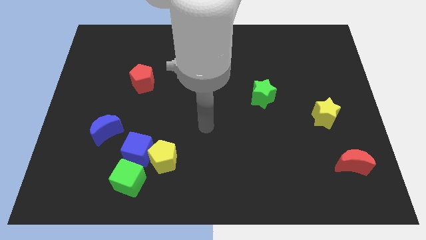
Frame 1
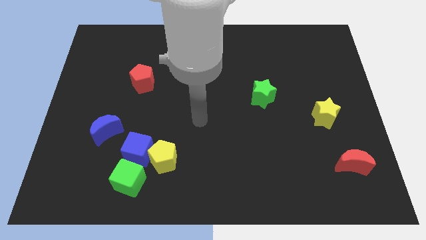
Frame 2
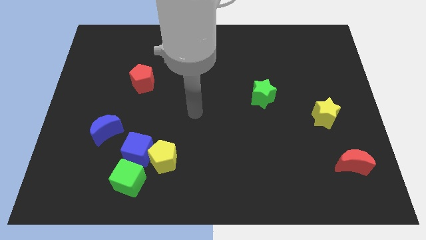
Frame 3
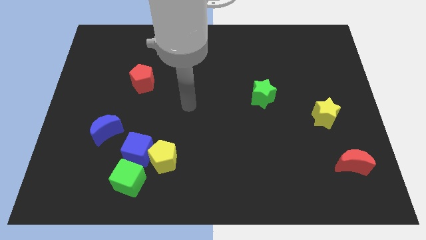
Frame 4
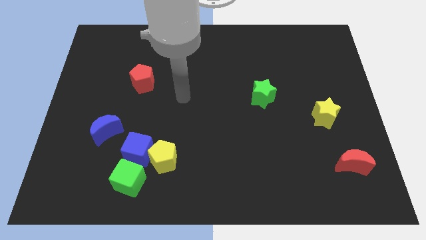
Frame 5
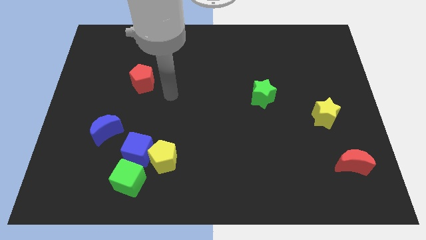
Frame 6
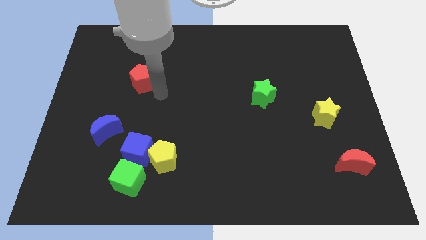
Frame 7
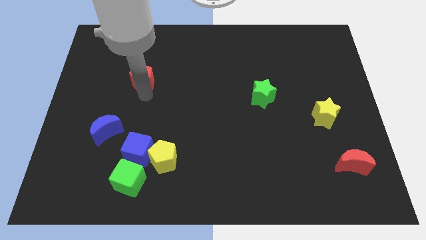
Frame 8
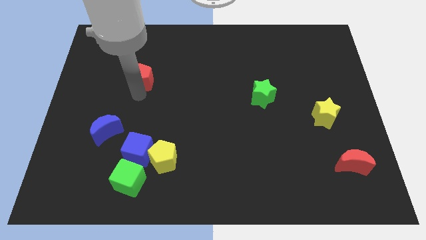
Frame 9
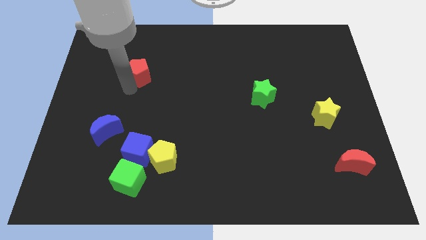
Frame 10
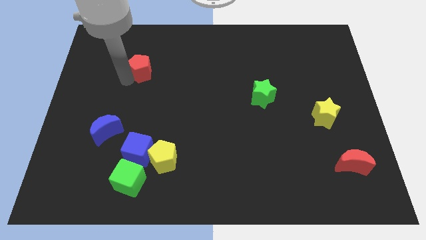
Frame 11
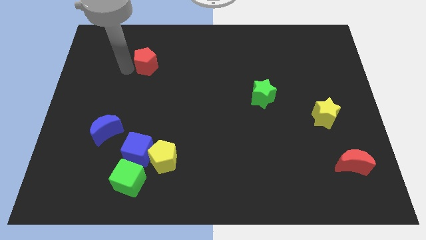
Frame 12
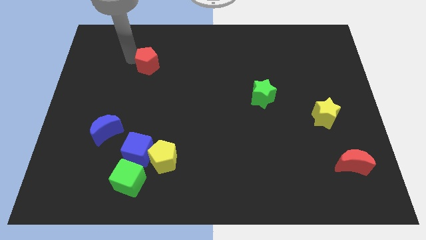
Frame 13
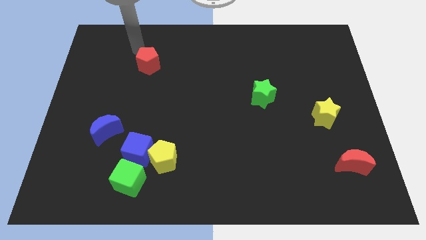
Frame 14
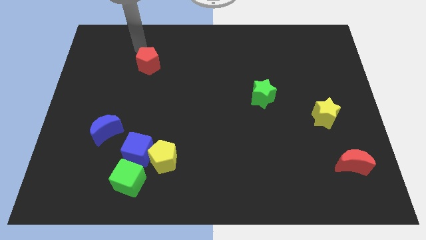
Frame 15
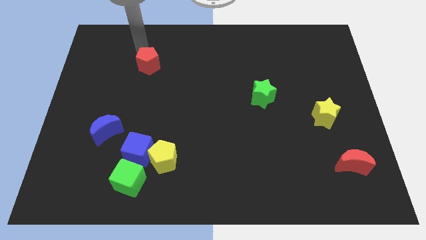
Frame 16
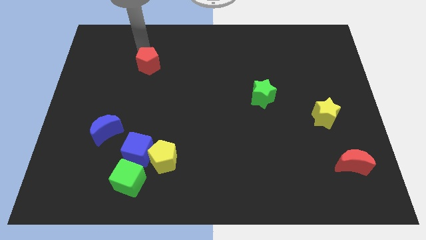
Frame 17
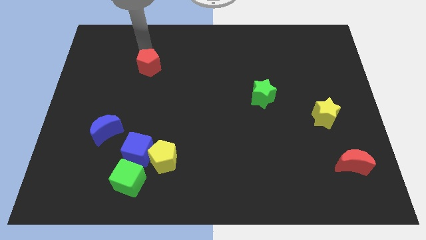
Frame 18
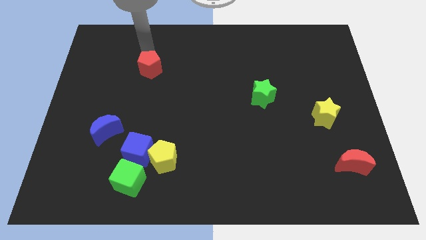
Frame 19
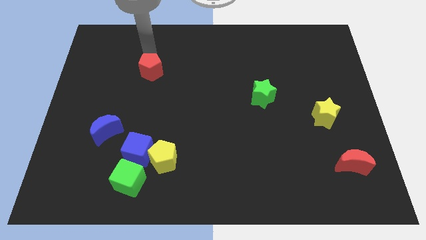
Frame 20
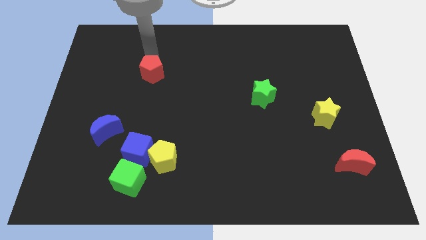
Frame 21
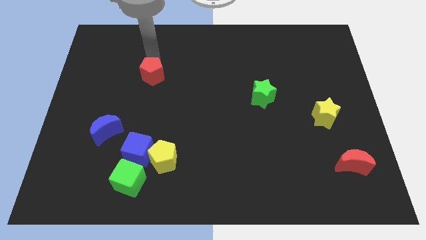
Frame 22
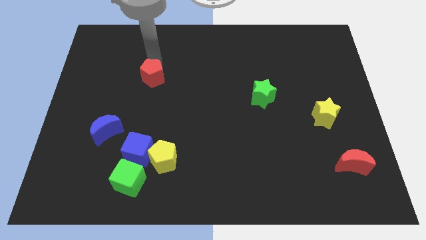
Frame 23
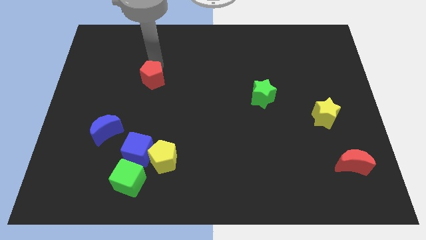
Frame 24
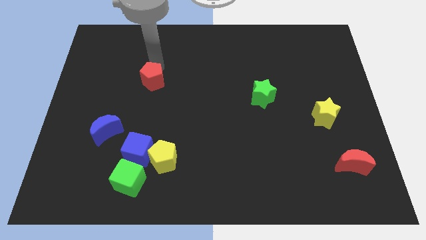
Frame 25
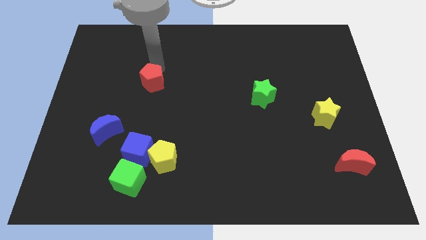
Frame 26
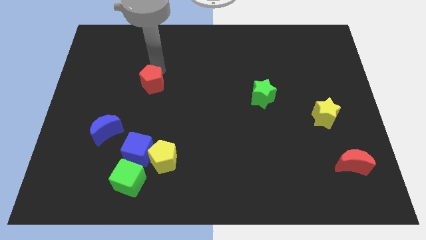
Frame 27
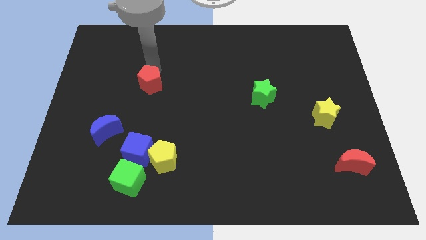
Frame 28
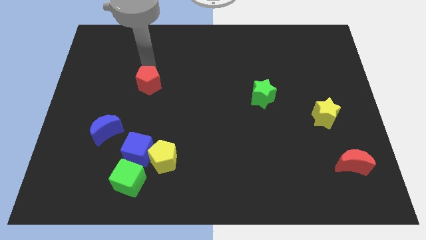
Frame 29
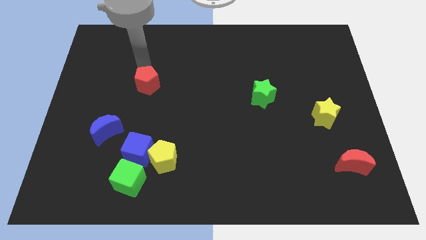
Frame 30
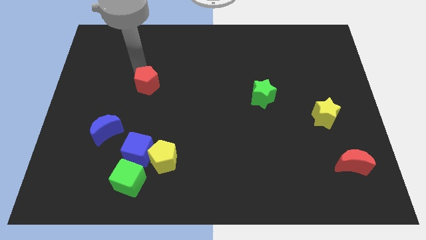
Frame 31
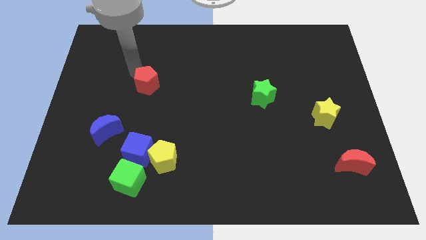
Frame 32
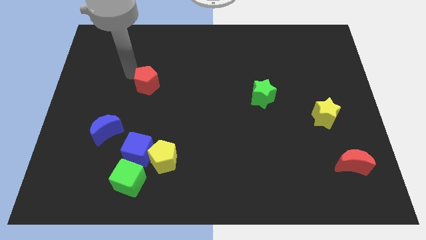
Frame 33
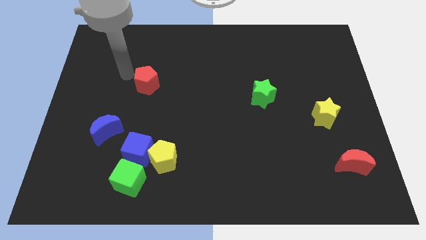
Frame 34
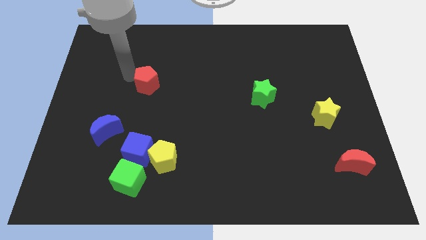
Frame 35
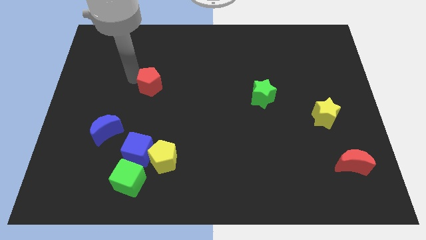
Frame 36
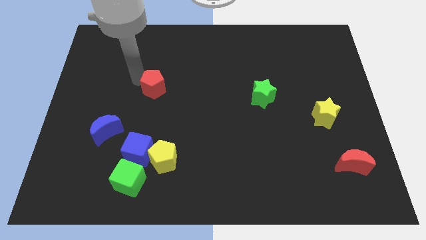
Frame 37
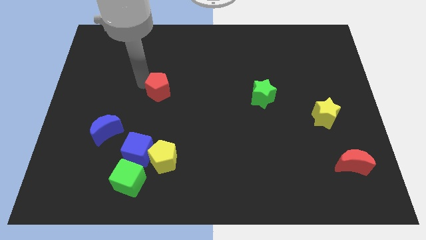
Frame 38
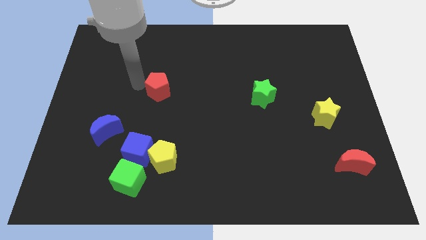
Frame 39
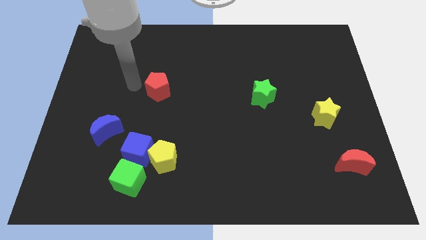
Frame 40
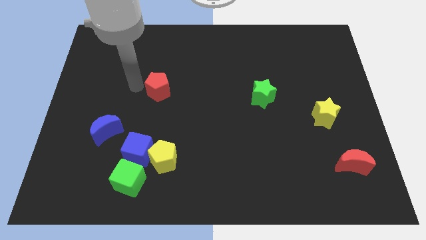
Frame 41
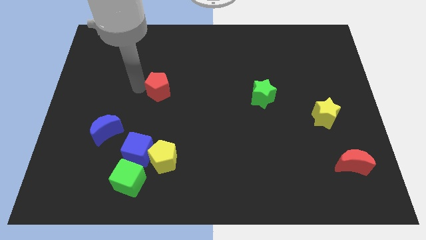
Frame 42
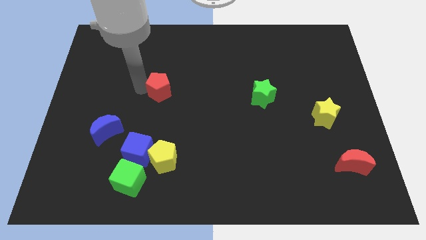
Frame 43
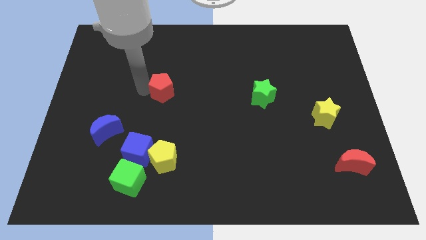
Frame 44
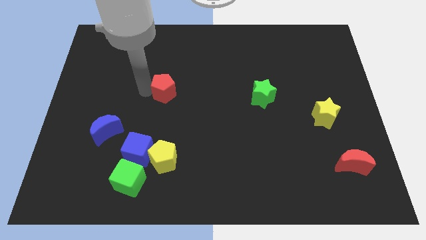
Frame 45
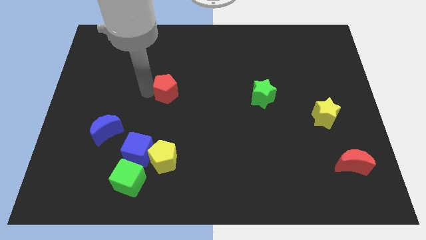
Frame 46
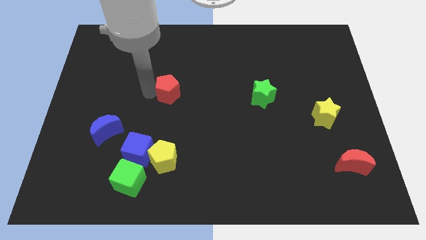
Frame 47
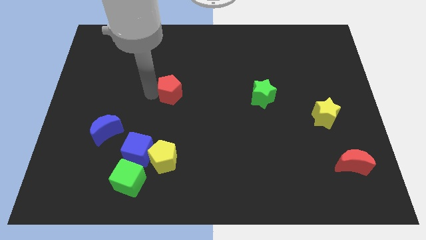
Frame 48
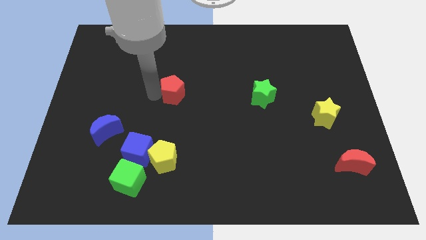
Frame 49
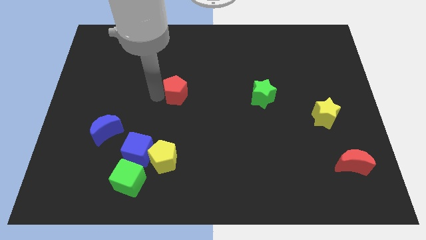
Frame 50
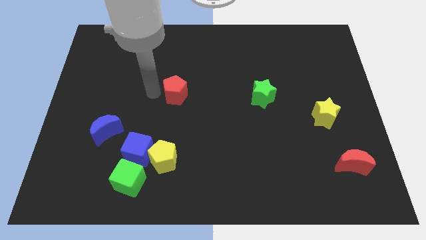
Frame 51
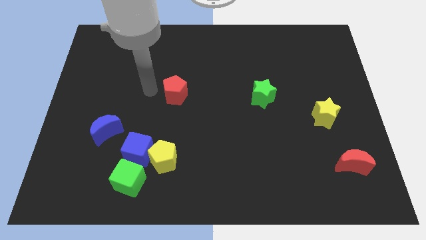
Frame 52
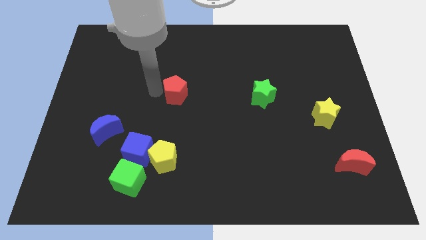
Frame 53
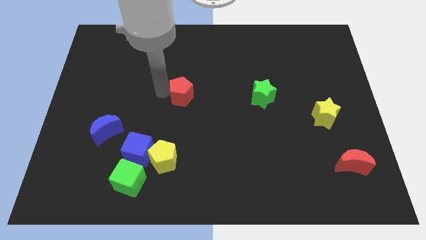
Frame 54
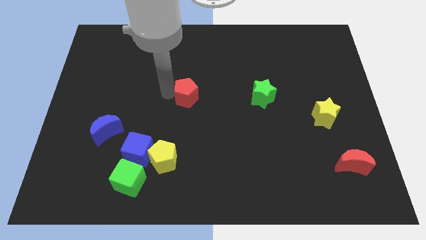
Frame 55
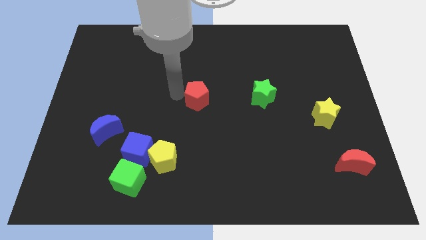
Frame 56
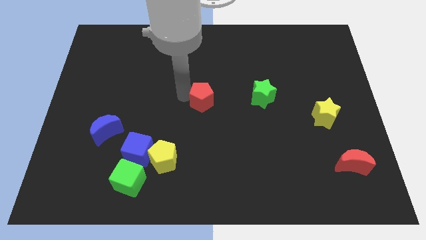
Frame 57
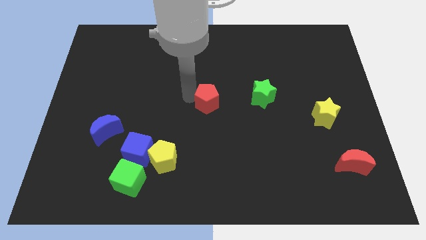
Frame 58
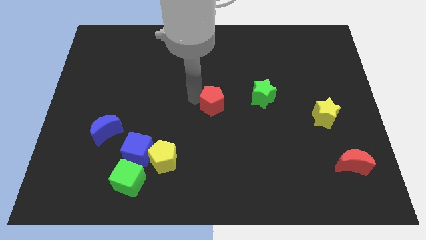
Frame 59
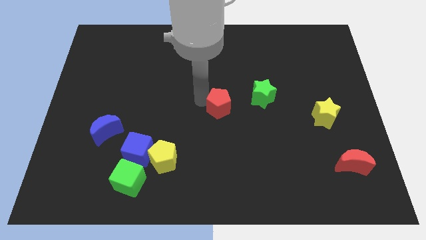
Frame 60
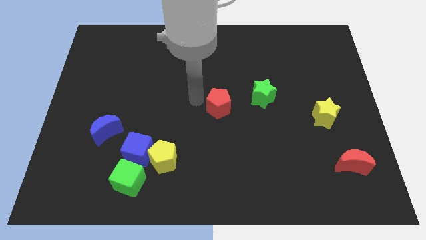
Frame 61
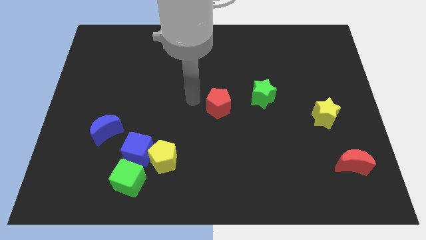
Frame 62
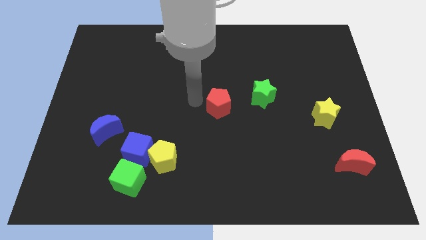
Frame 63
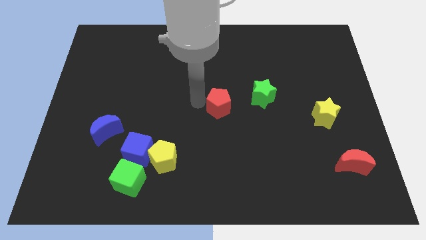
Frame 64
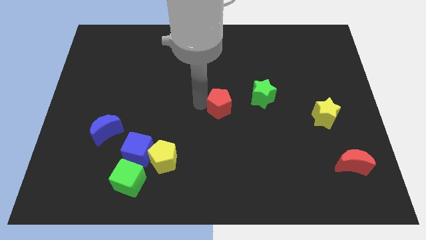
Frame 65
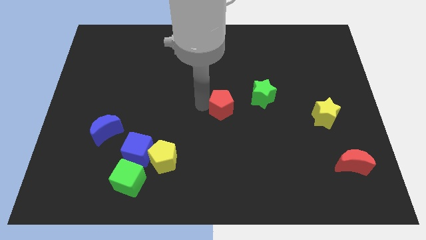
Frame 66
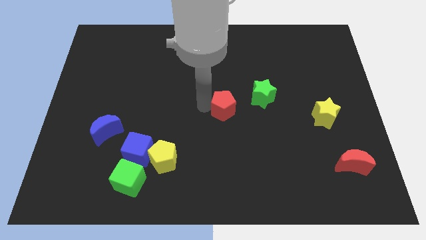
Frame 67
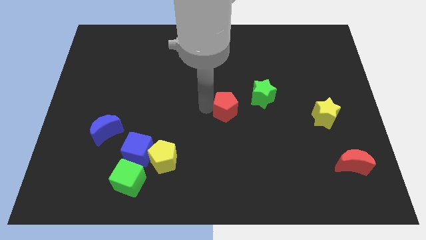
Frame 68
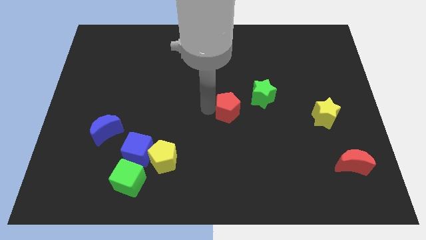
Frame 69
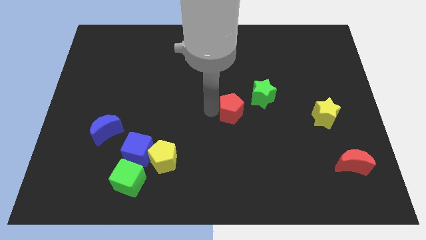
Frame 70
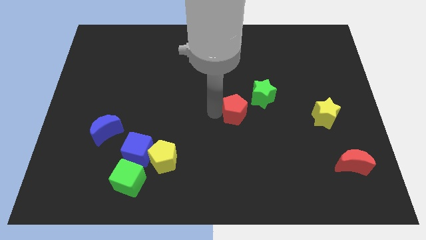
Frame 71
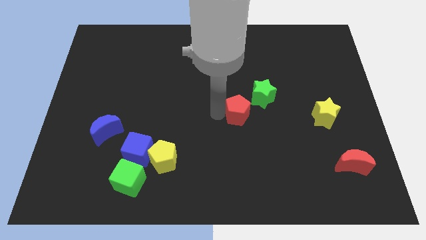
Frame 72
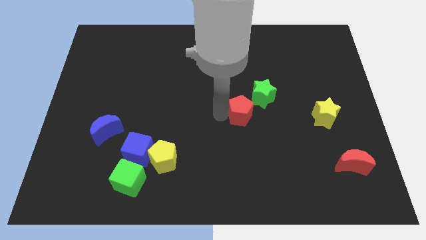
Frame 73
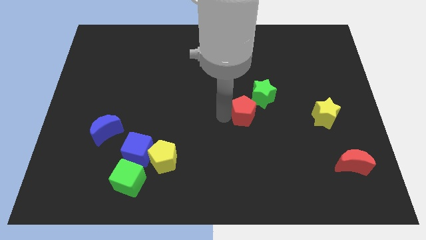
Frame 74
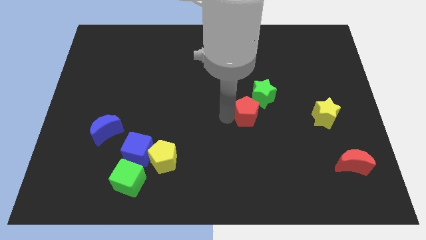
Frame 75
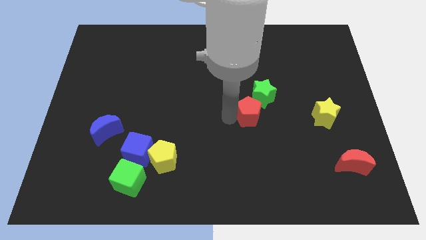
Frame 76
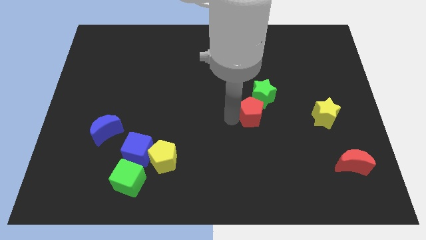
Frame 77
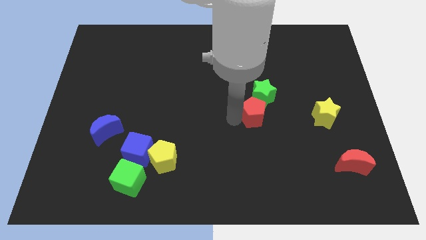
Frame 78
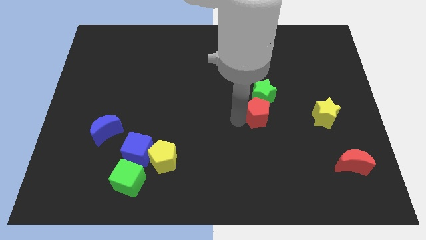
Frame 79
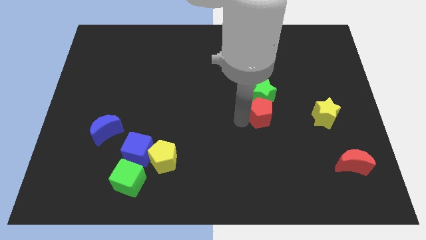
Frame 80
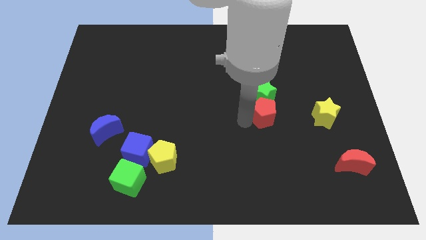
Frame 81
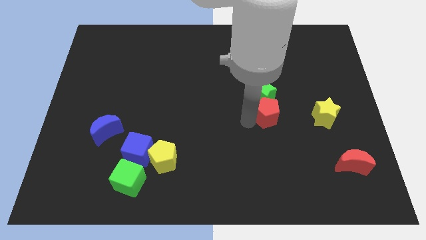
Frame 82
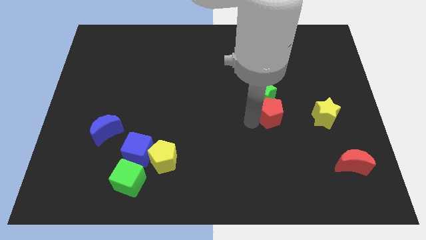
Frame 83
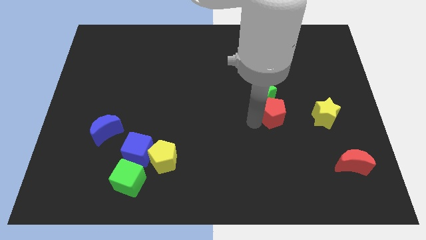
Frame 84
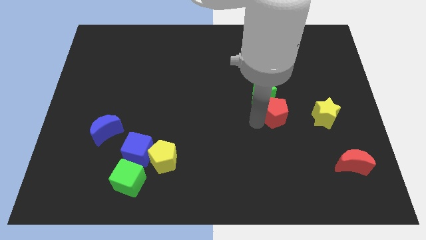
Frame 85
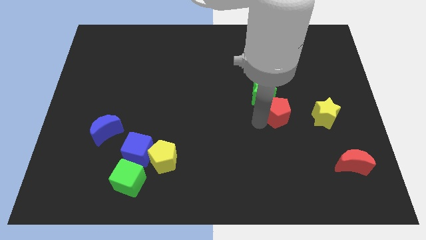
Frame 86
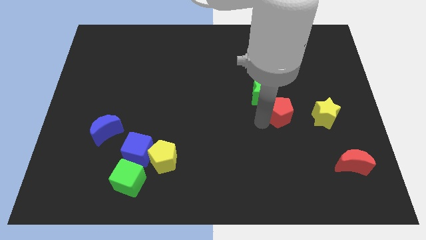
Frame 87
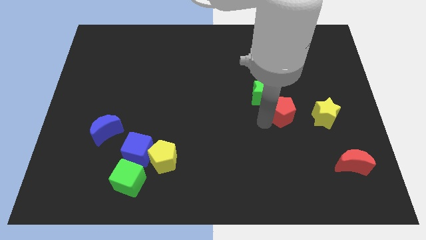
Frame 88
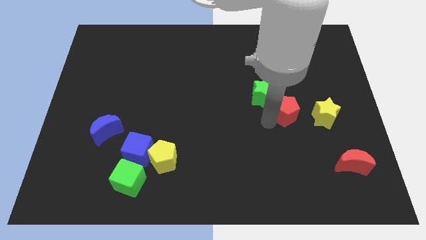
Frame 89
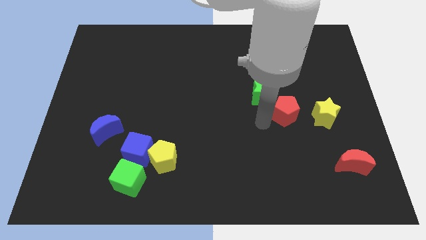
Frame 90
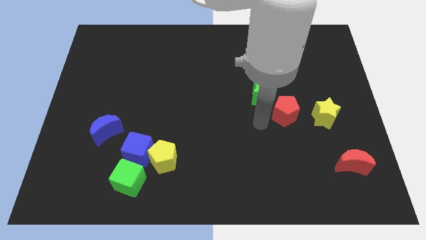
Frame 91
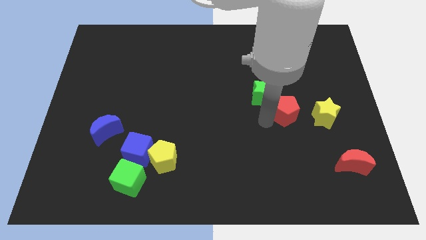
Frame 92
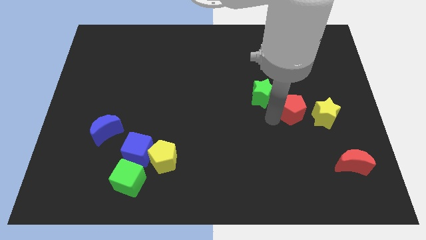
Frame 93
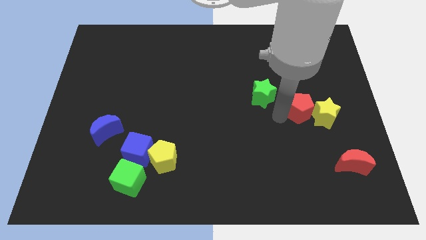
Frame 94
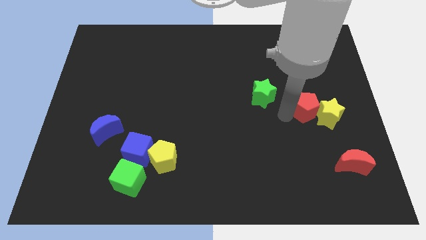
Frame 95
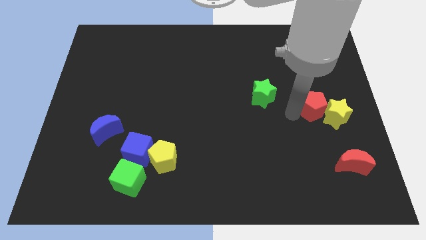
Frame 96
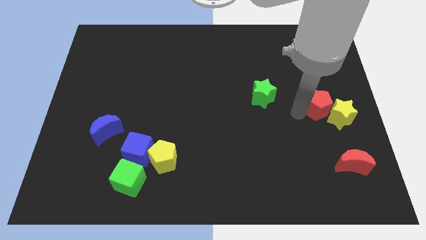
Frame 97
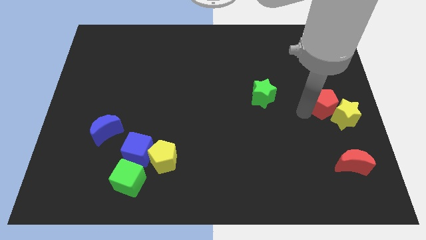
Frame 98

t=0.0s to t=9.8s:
put the red pentagon to the center right
